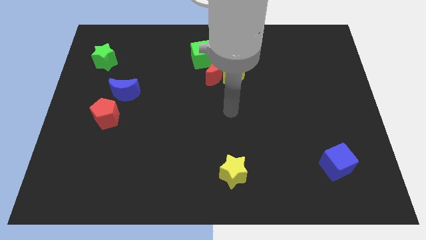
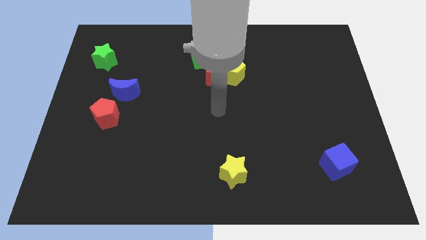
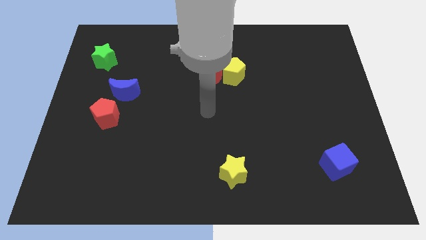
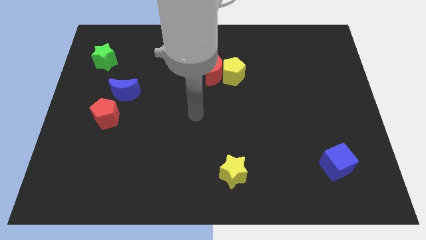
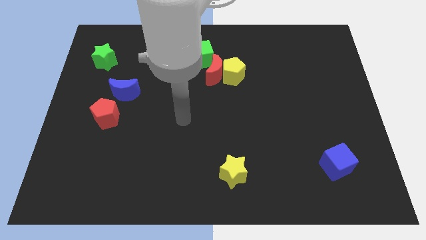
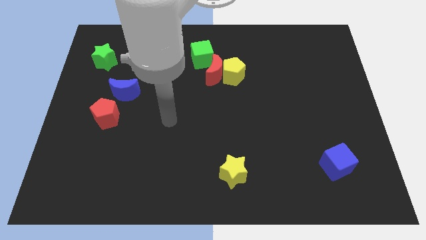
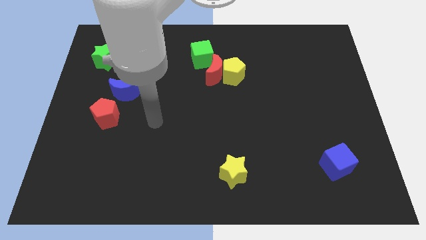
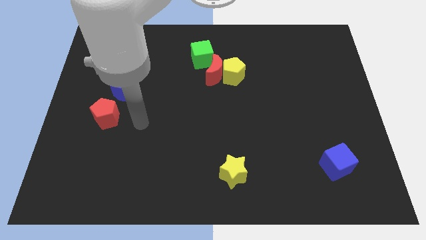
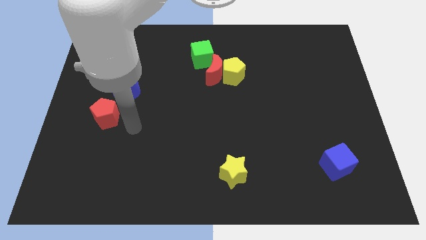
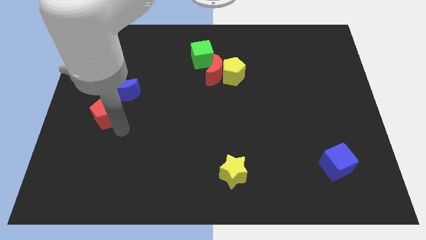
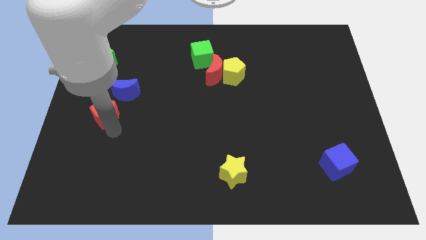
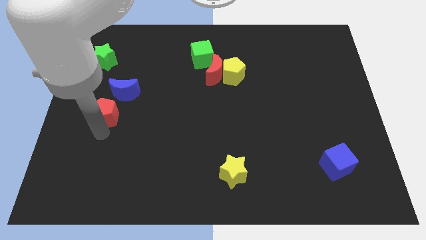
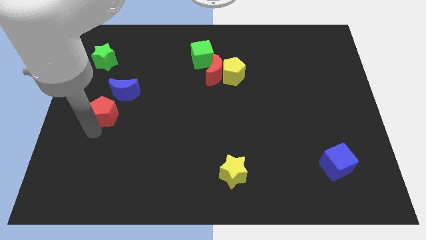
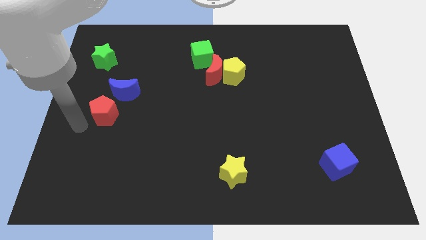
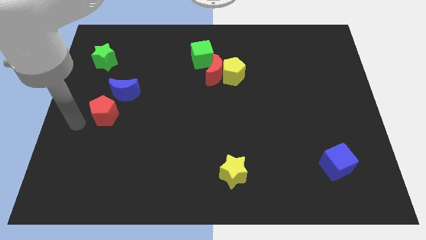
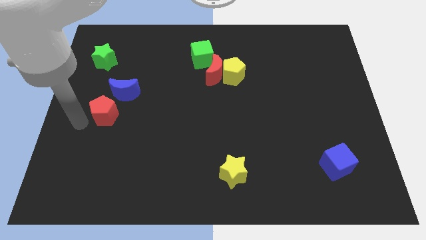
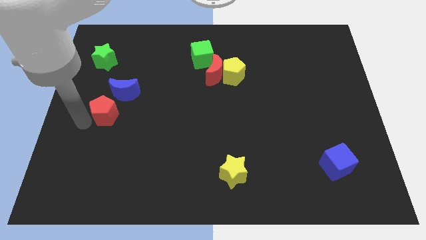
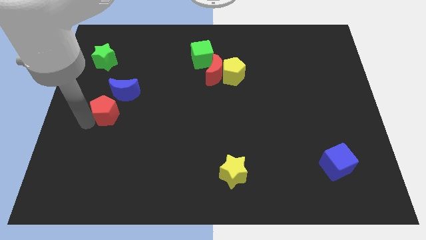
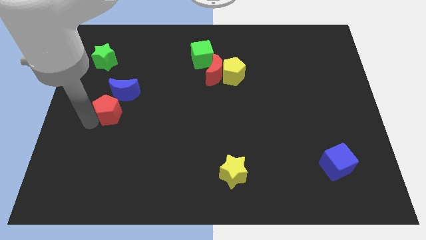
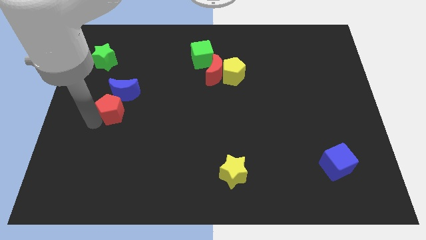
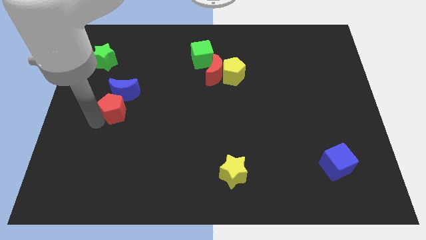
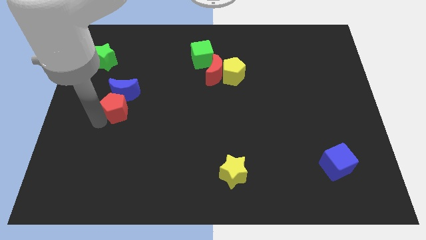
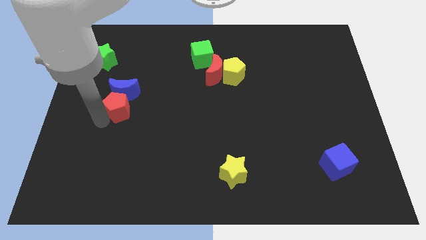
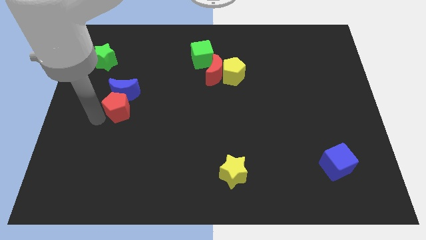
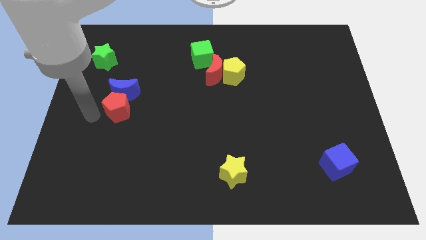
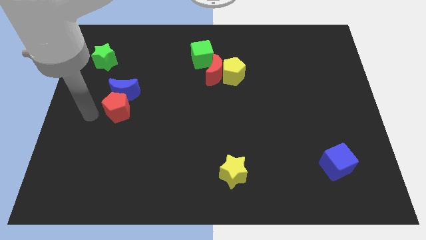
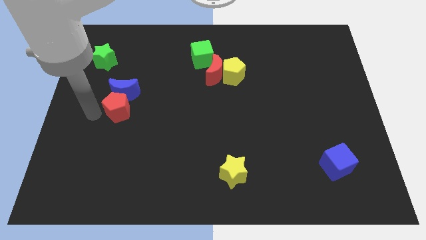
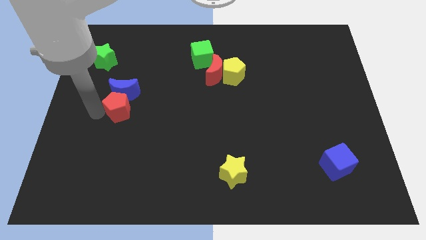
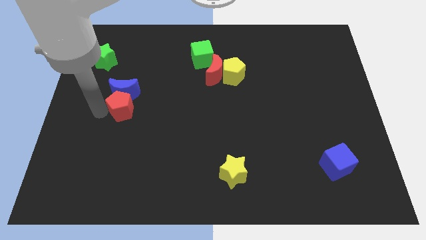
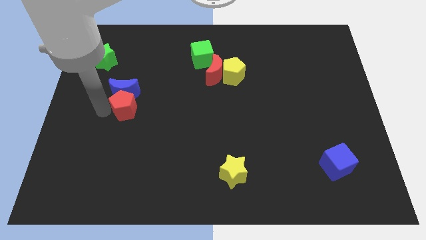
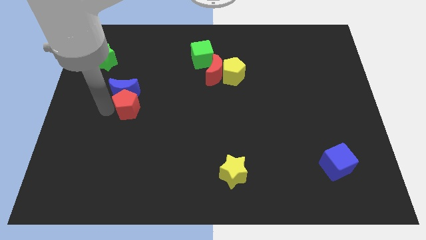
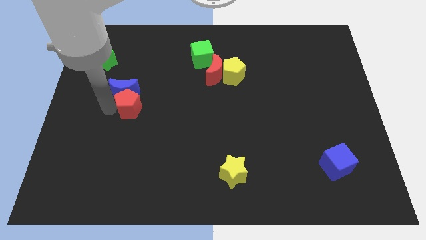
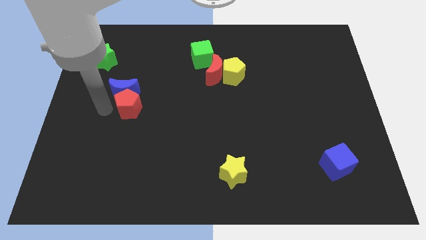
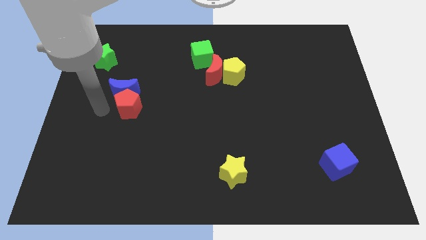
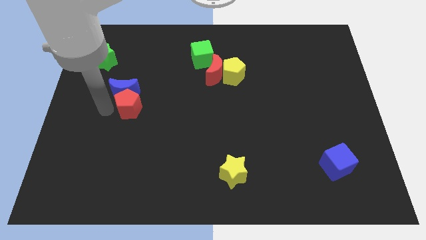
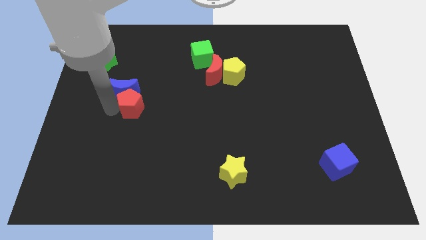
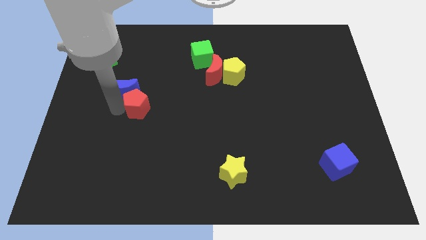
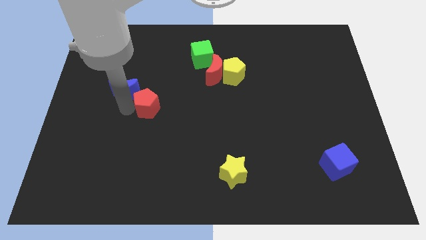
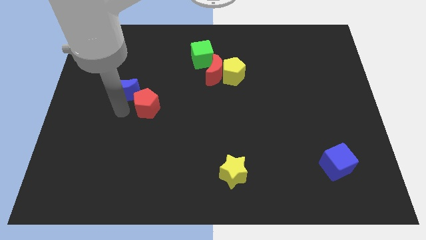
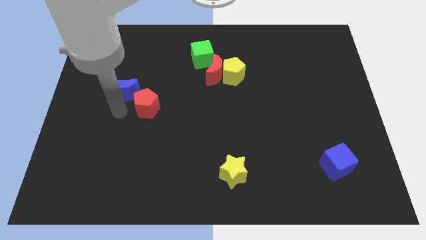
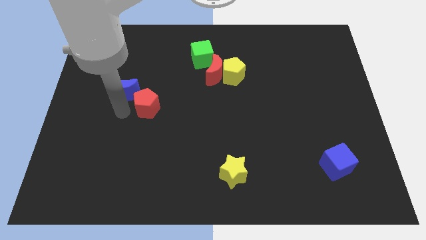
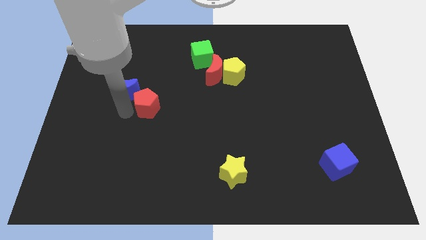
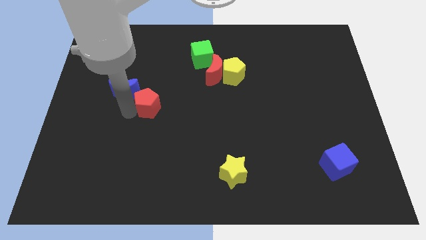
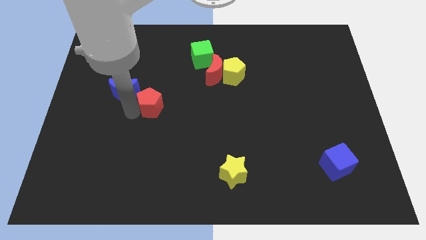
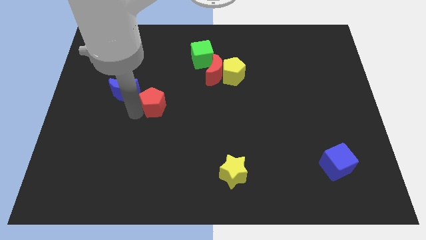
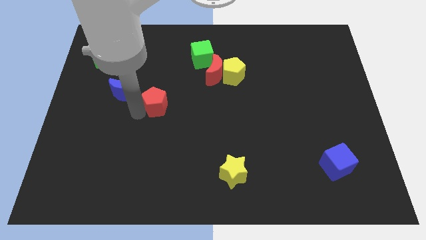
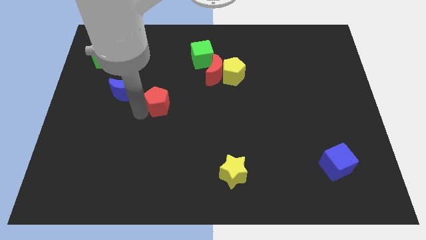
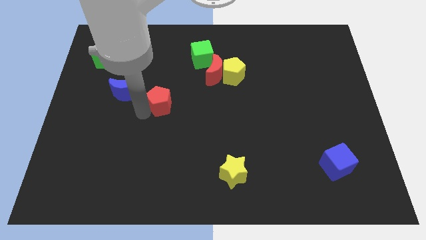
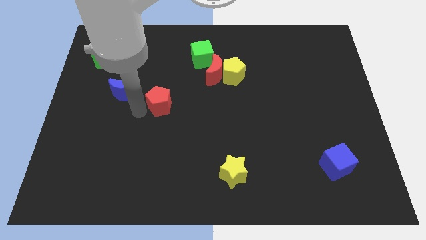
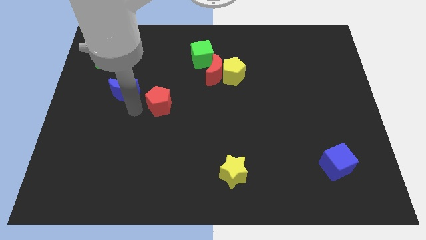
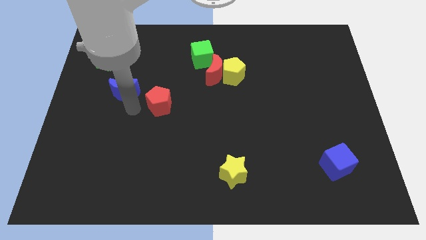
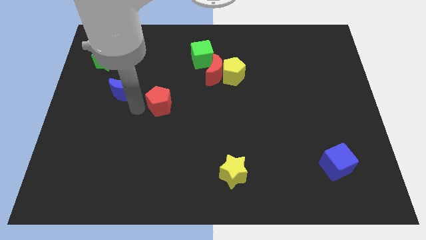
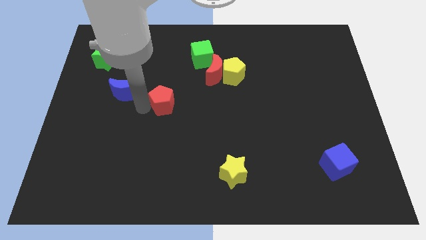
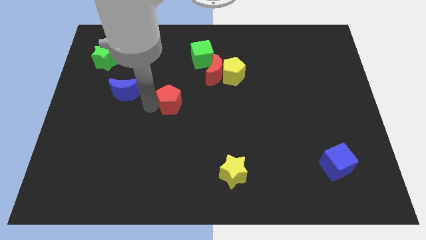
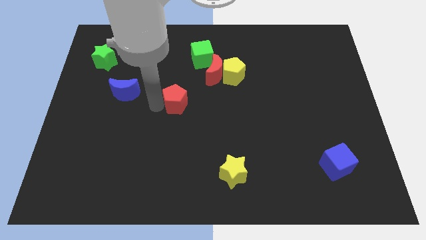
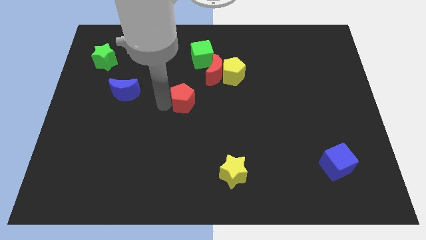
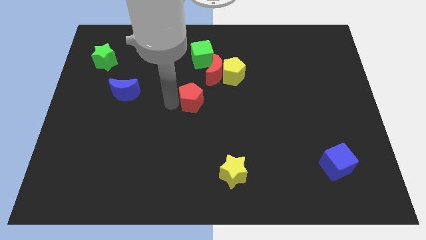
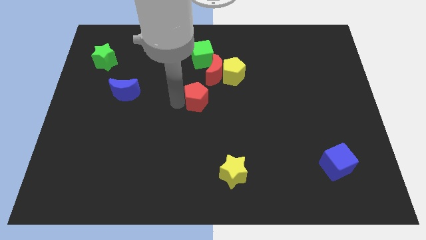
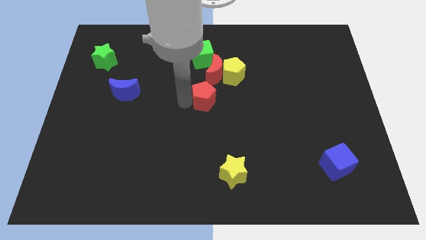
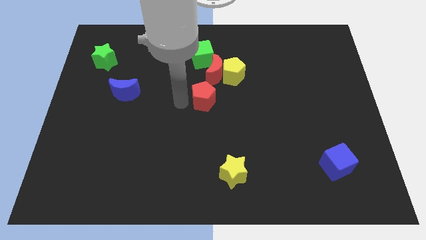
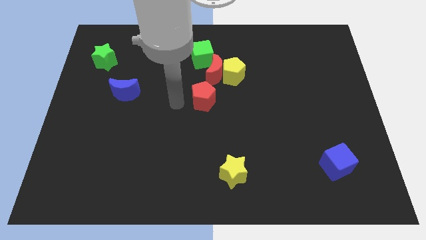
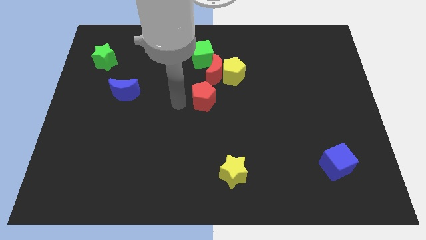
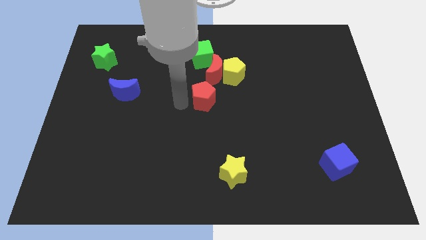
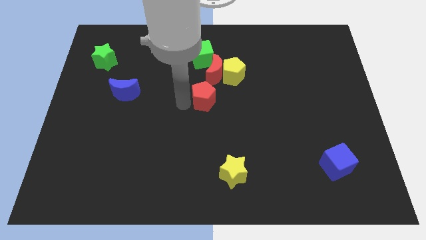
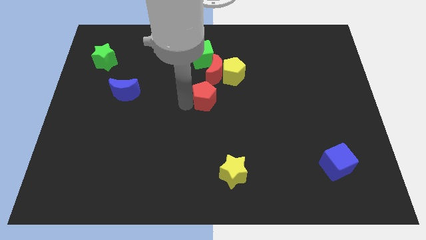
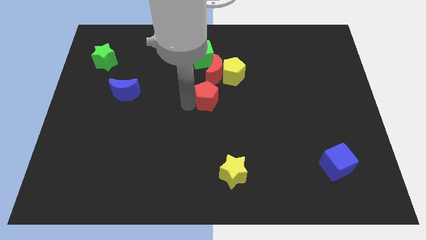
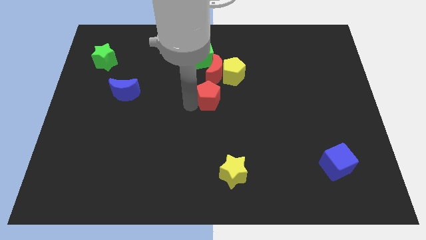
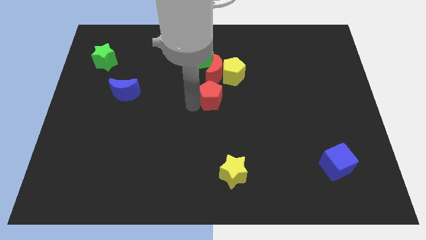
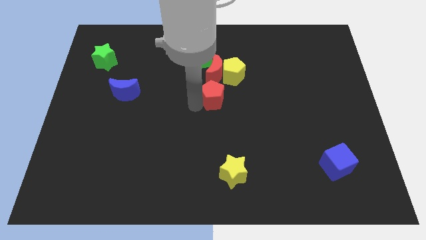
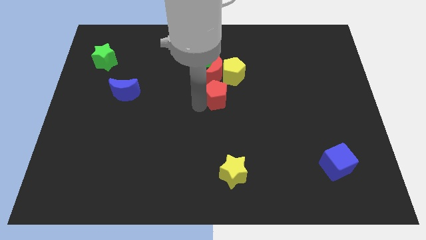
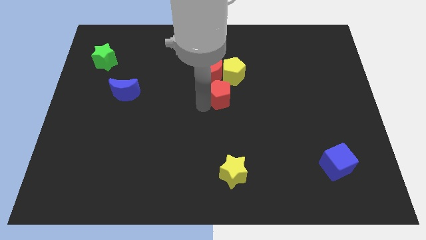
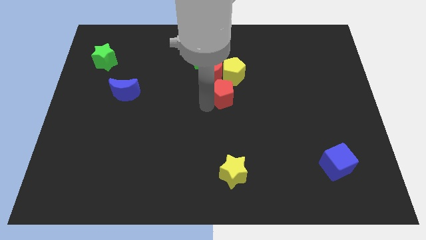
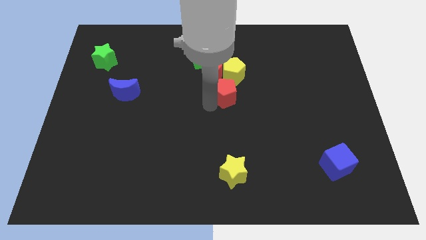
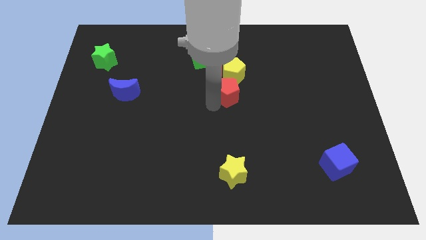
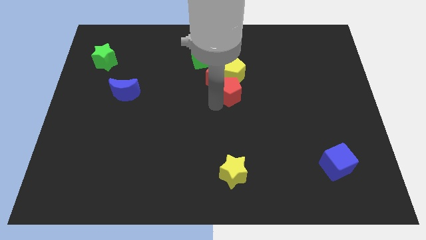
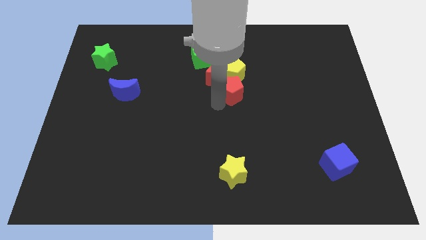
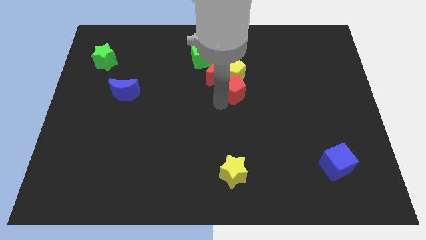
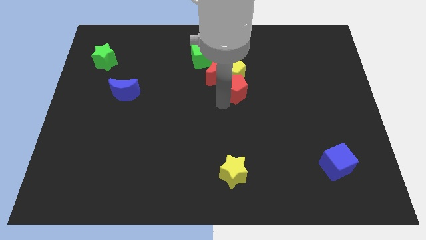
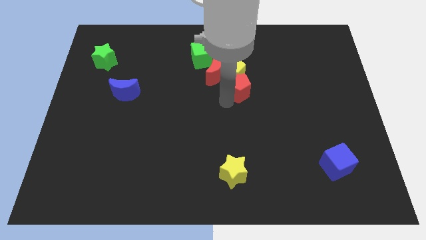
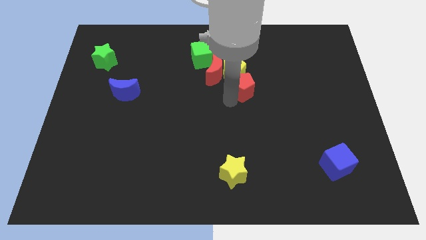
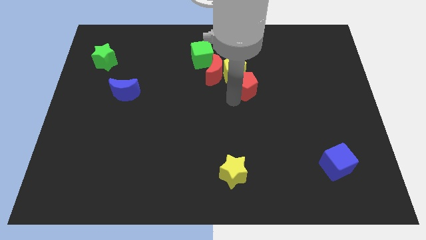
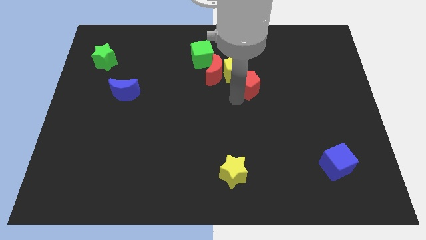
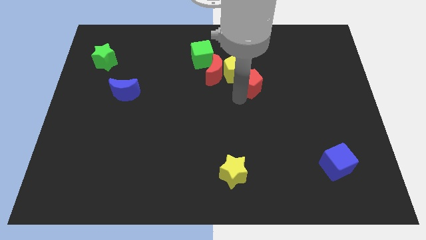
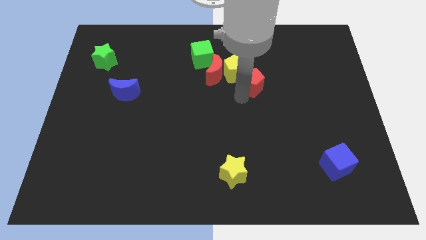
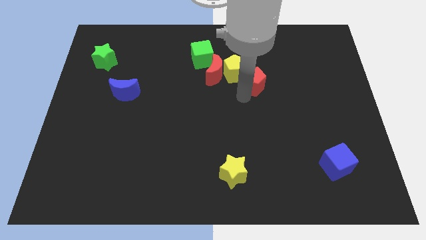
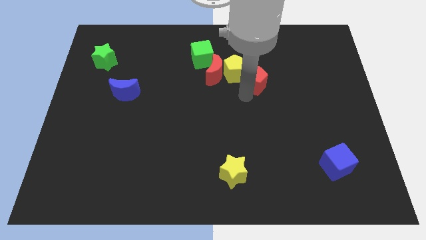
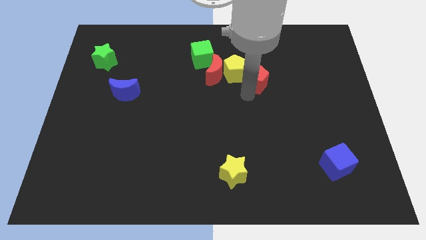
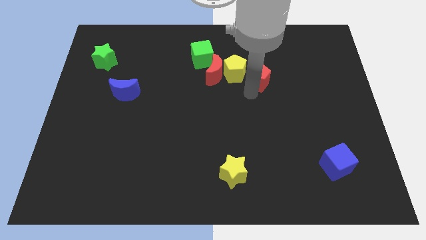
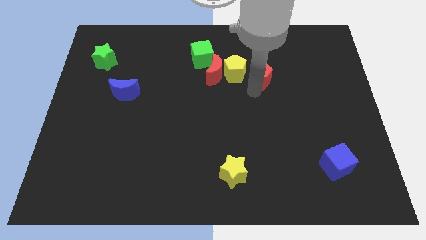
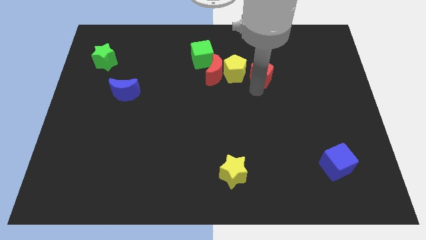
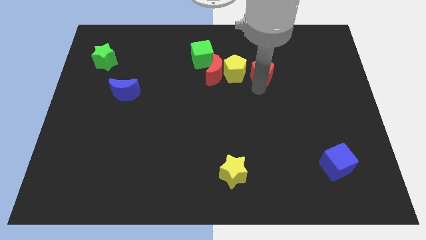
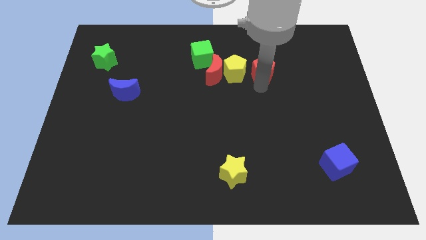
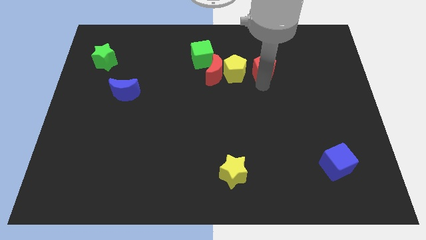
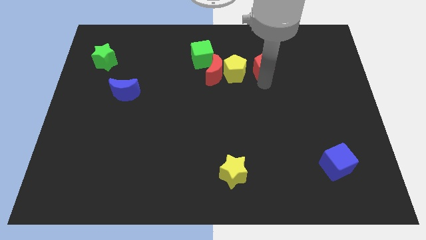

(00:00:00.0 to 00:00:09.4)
put the red pentagon to the top right of the yellow pentagon
